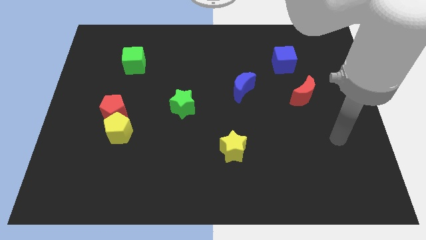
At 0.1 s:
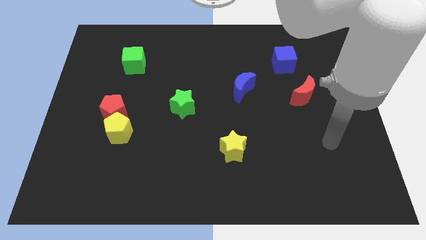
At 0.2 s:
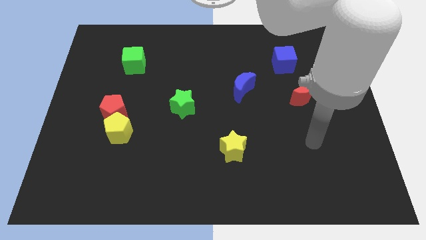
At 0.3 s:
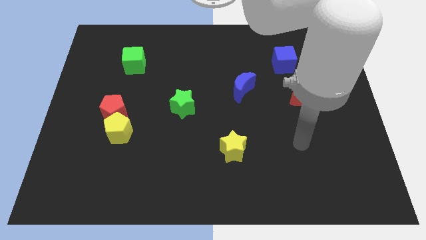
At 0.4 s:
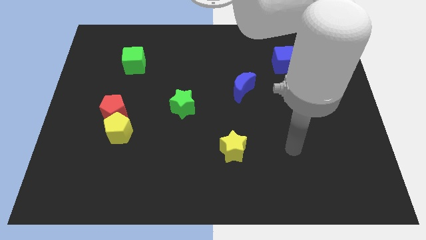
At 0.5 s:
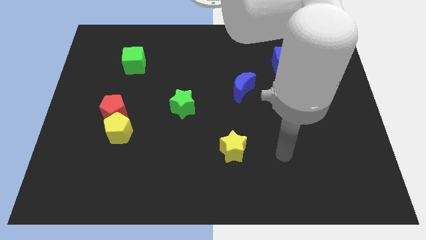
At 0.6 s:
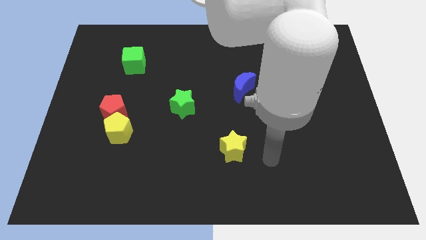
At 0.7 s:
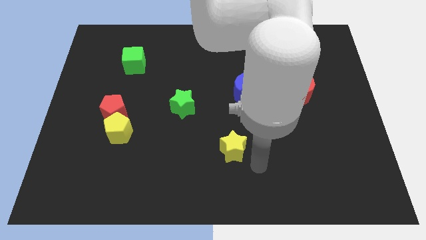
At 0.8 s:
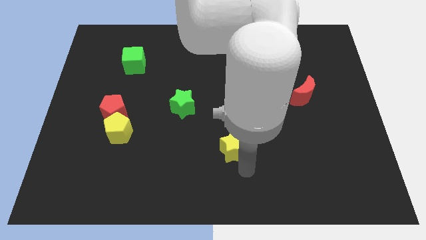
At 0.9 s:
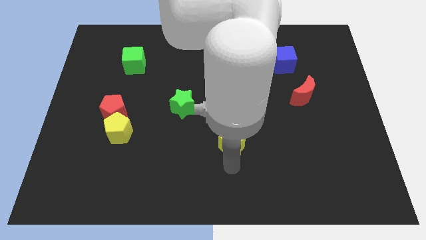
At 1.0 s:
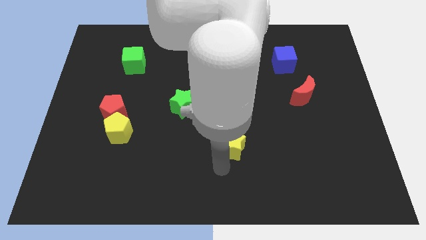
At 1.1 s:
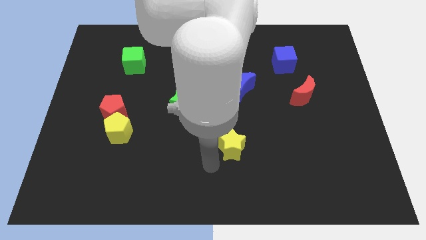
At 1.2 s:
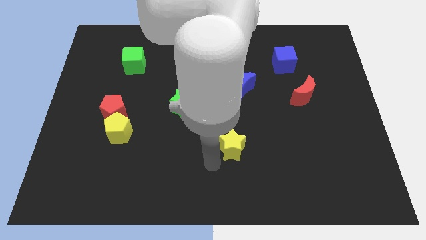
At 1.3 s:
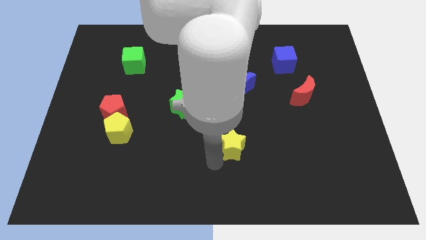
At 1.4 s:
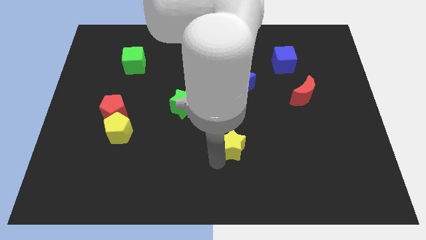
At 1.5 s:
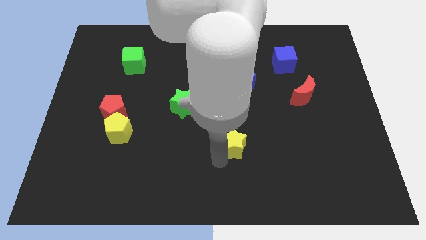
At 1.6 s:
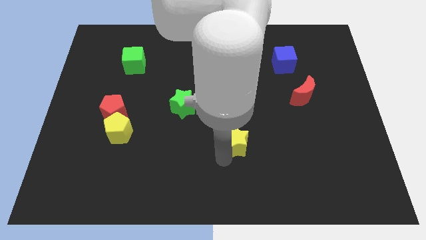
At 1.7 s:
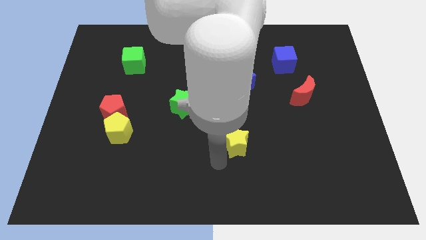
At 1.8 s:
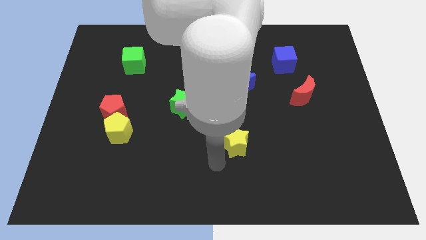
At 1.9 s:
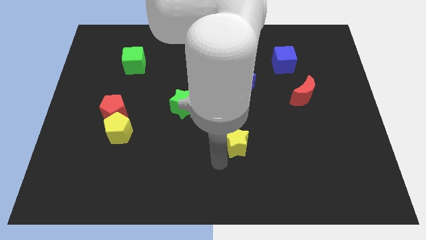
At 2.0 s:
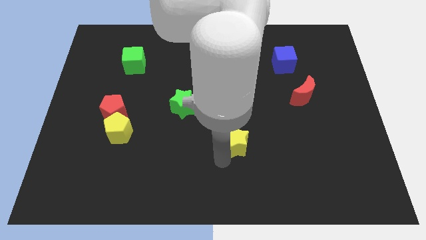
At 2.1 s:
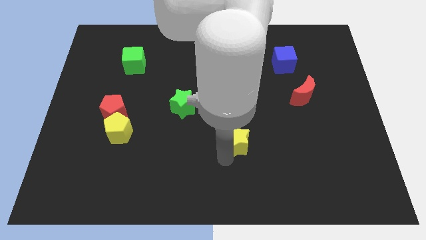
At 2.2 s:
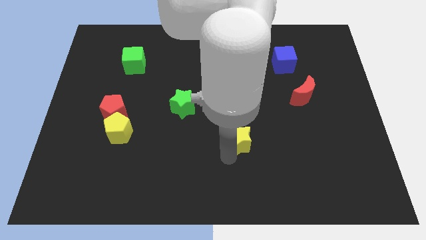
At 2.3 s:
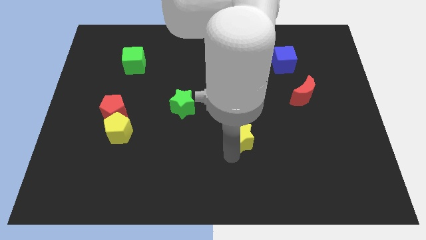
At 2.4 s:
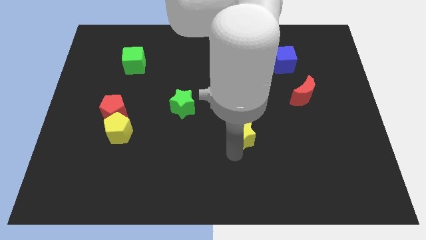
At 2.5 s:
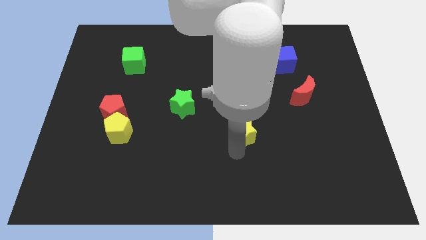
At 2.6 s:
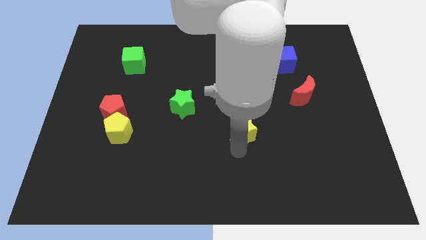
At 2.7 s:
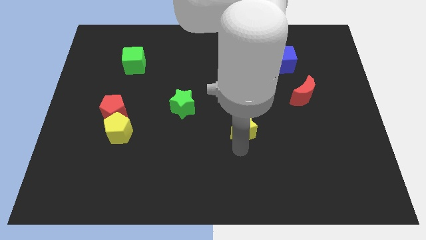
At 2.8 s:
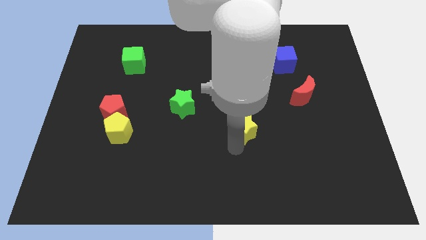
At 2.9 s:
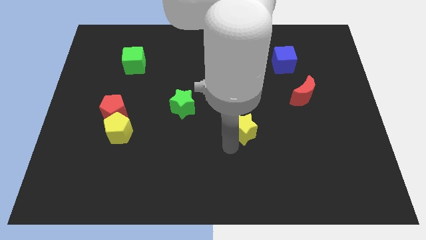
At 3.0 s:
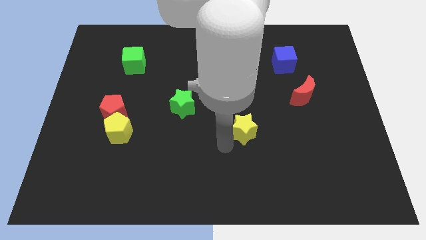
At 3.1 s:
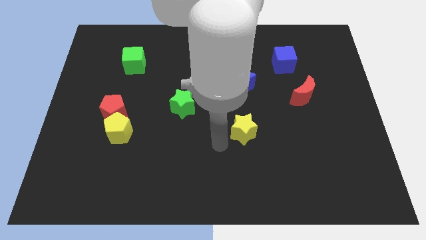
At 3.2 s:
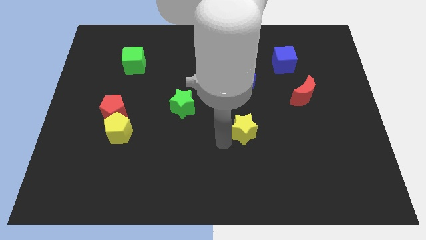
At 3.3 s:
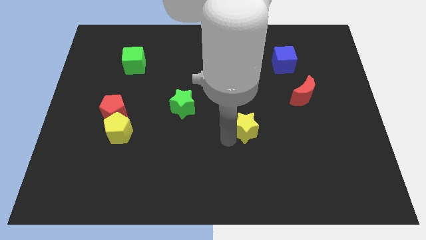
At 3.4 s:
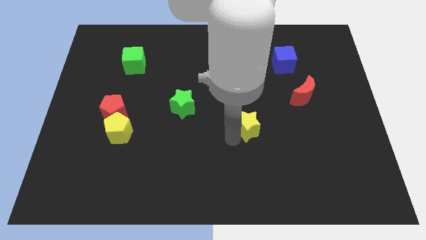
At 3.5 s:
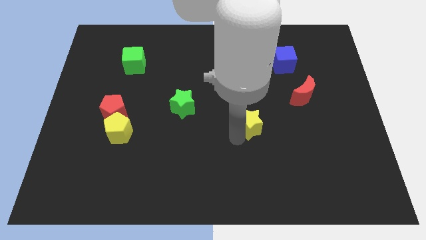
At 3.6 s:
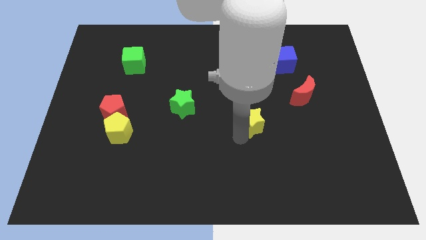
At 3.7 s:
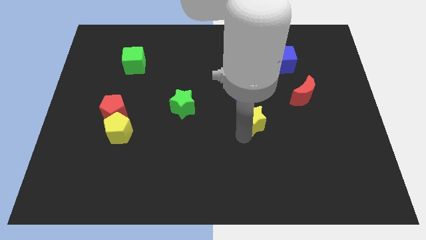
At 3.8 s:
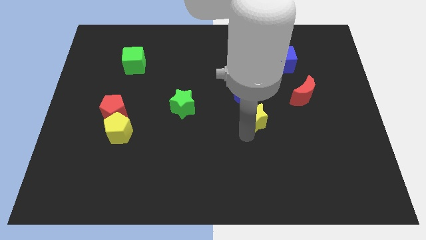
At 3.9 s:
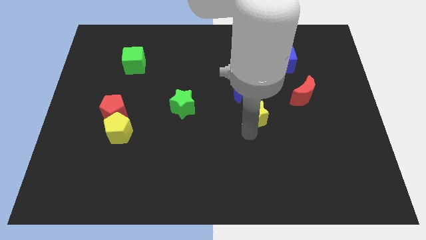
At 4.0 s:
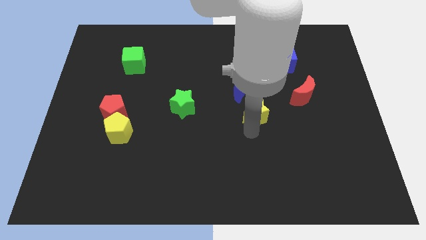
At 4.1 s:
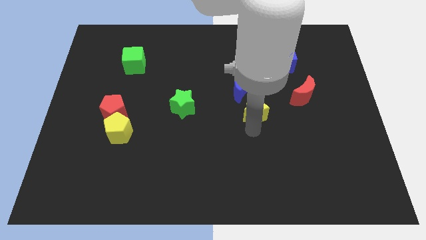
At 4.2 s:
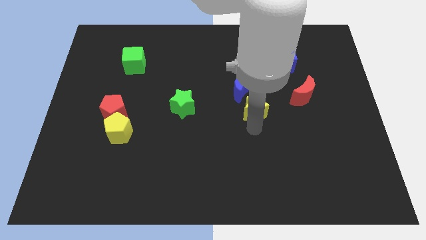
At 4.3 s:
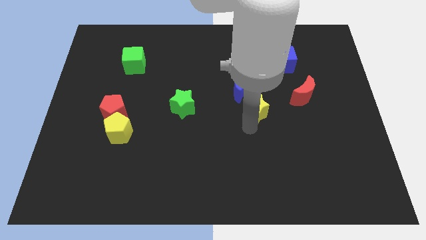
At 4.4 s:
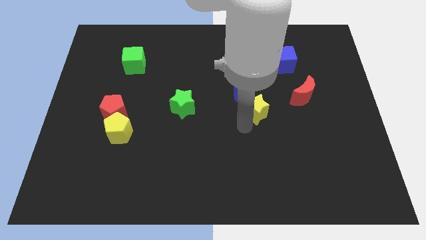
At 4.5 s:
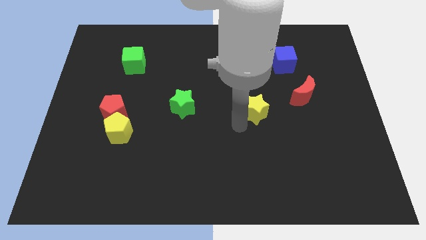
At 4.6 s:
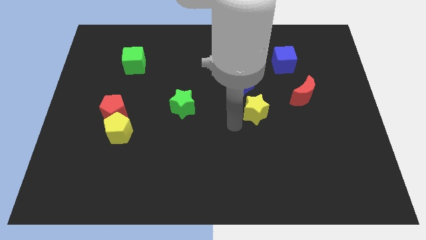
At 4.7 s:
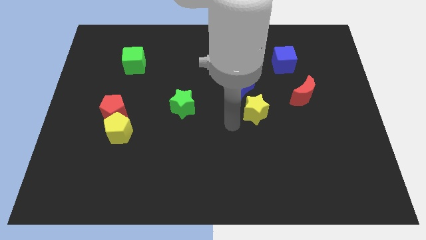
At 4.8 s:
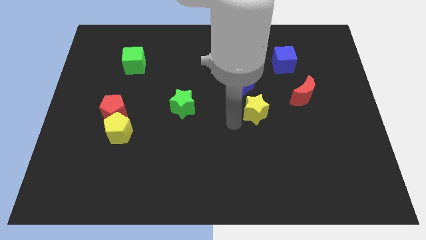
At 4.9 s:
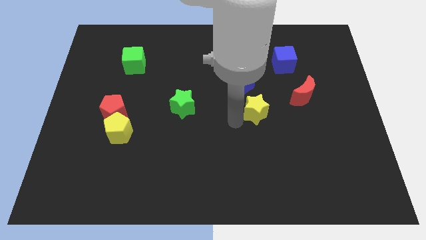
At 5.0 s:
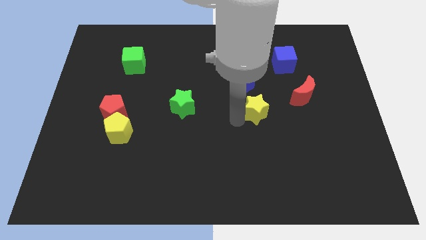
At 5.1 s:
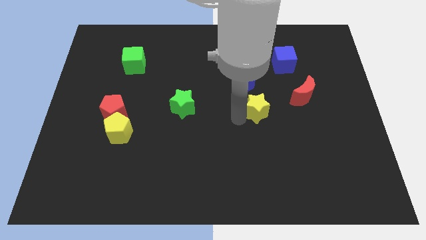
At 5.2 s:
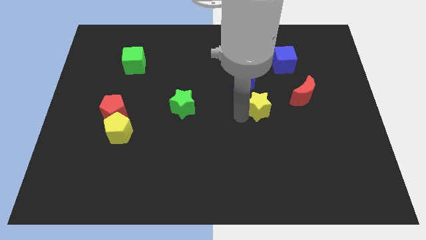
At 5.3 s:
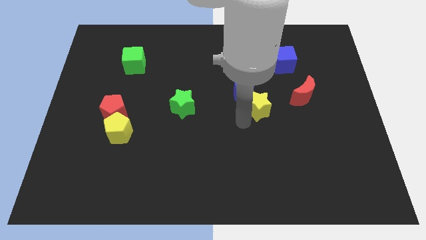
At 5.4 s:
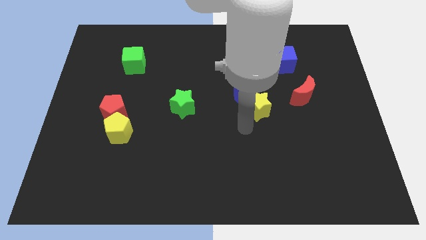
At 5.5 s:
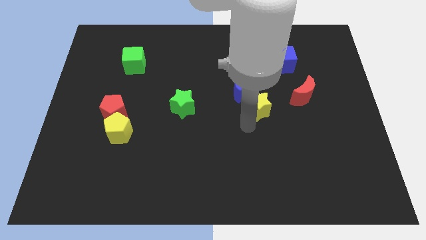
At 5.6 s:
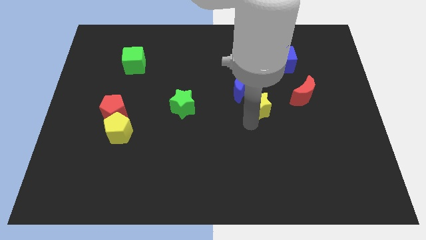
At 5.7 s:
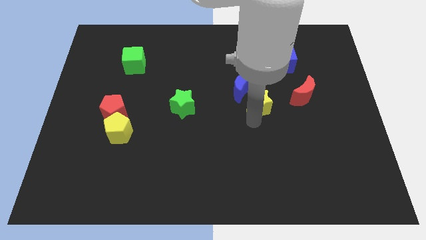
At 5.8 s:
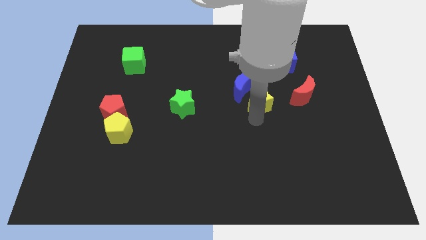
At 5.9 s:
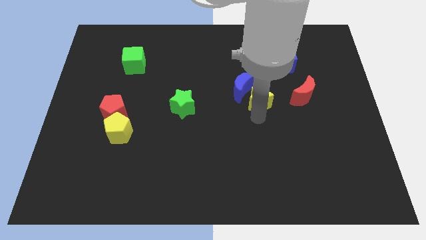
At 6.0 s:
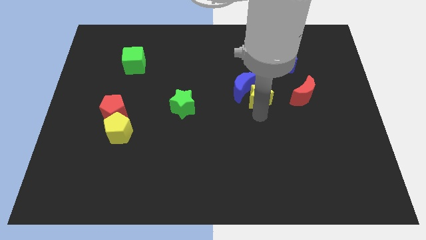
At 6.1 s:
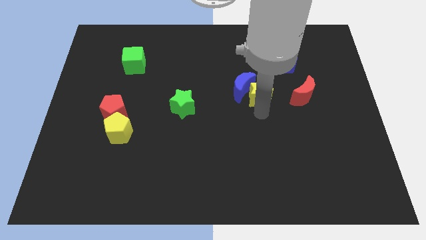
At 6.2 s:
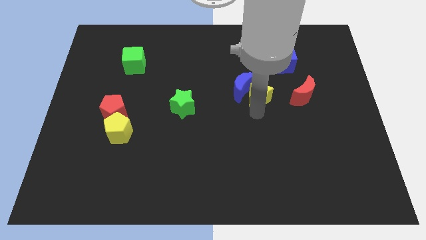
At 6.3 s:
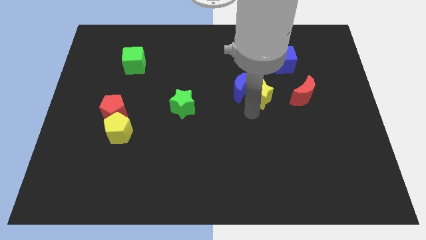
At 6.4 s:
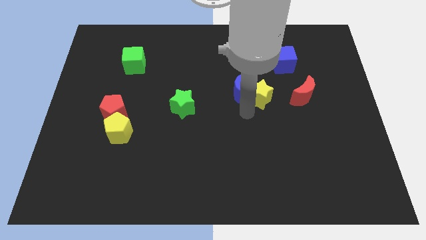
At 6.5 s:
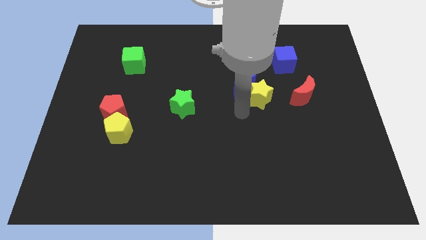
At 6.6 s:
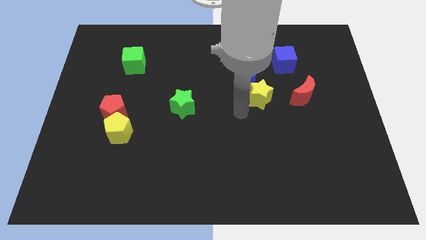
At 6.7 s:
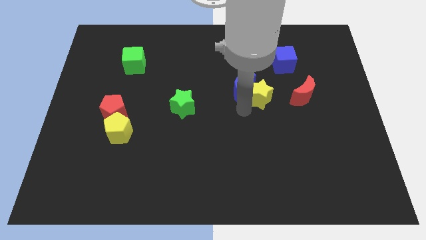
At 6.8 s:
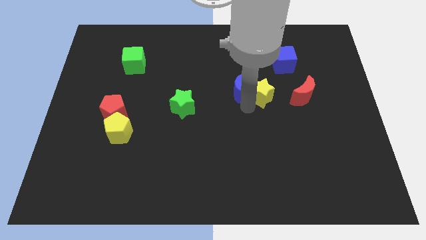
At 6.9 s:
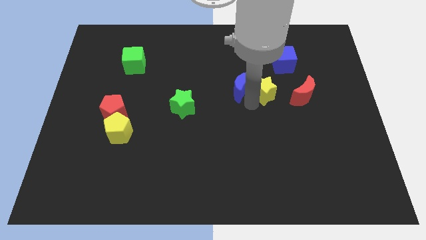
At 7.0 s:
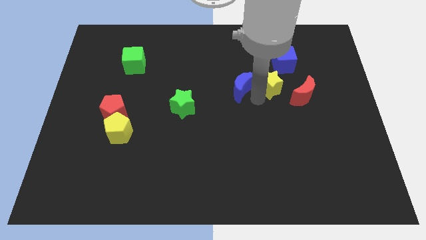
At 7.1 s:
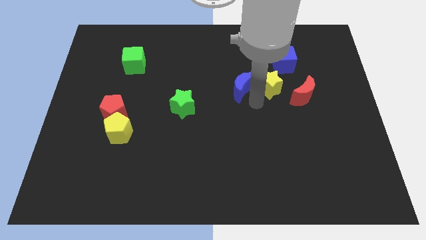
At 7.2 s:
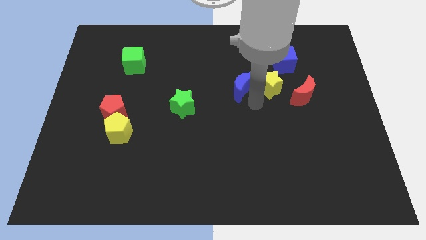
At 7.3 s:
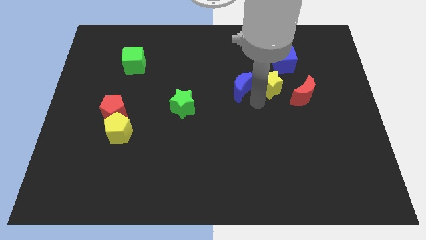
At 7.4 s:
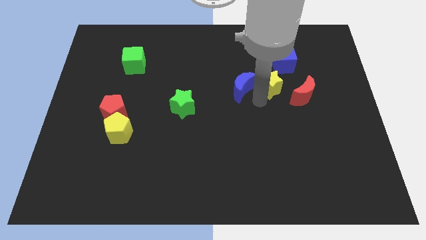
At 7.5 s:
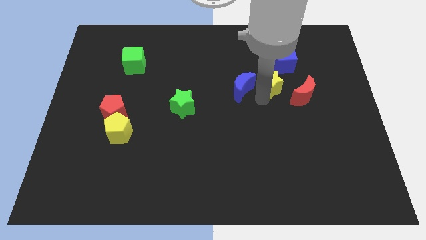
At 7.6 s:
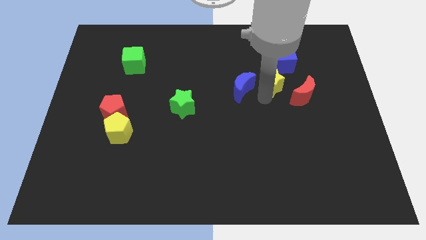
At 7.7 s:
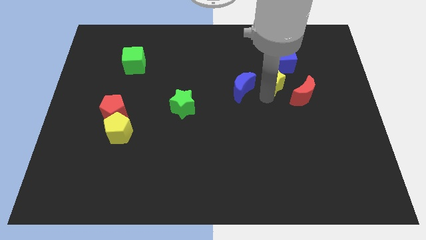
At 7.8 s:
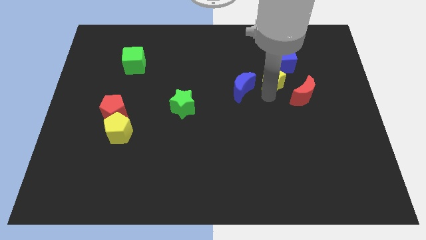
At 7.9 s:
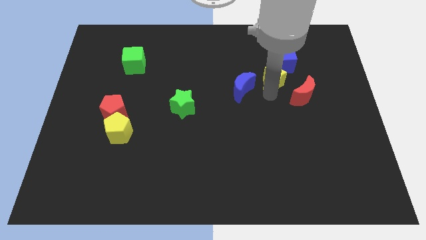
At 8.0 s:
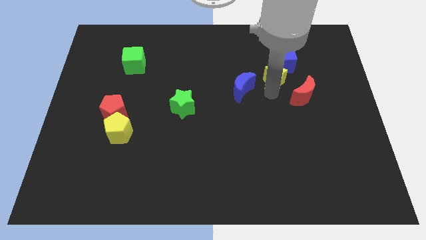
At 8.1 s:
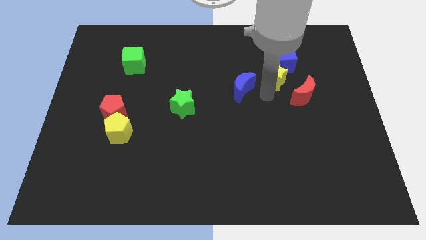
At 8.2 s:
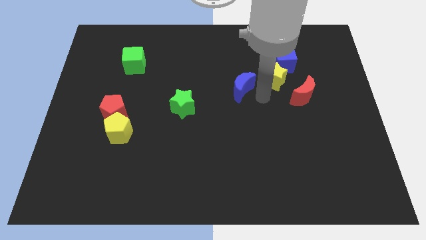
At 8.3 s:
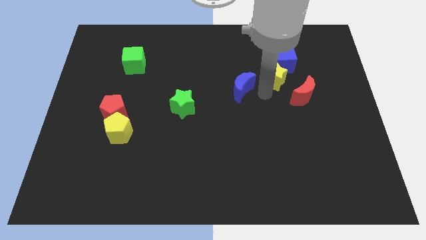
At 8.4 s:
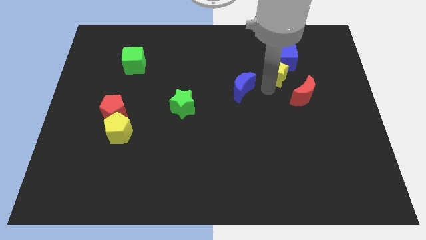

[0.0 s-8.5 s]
push the yellow star towards the blue cube
